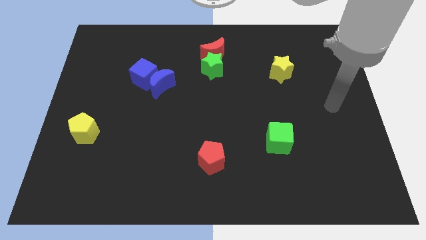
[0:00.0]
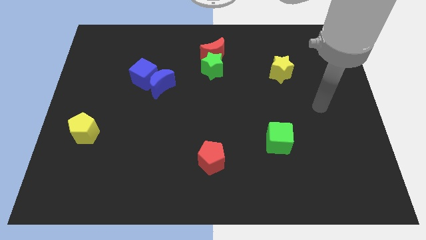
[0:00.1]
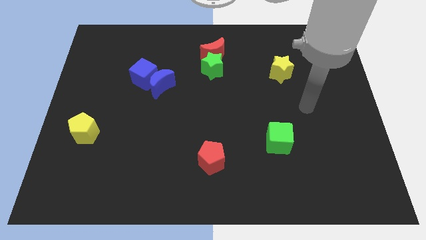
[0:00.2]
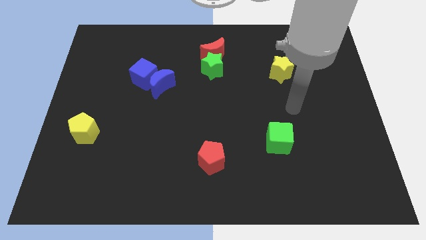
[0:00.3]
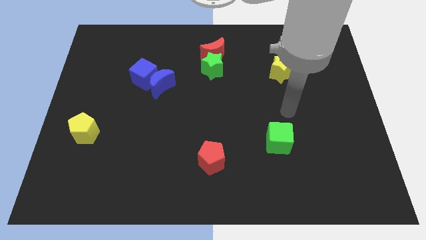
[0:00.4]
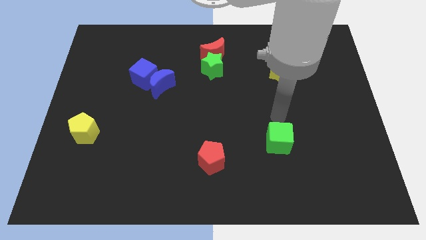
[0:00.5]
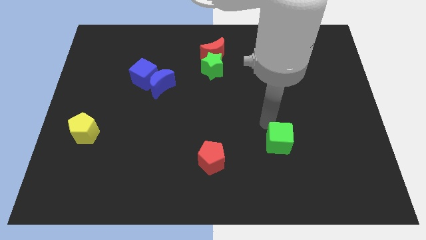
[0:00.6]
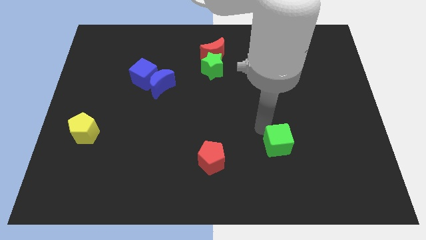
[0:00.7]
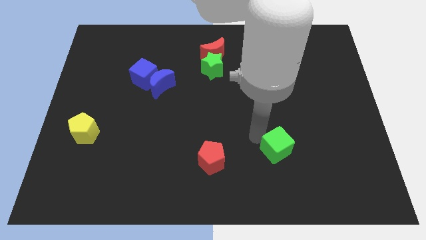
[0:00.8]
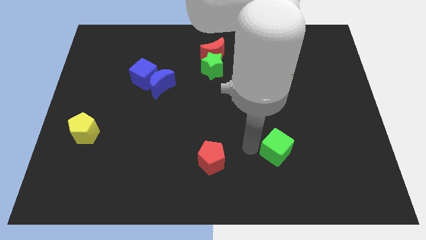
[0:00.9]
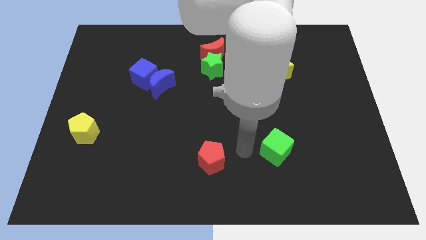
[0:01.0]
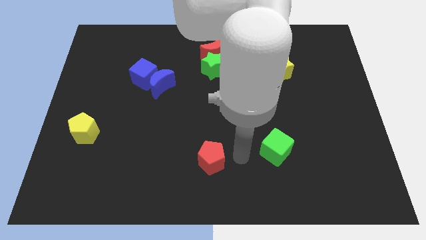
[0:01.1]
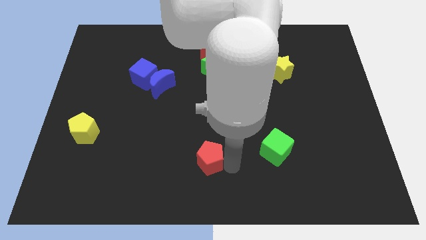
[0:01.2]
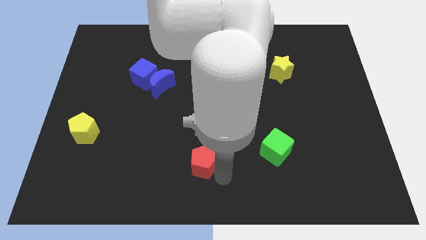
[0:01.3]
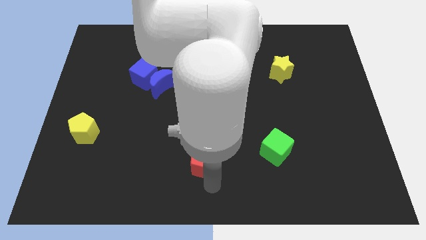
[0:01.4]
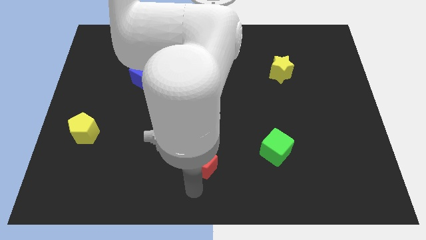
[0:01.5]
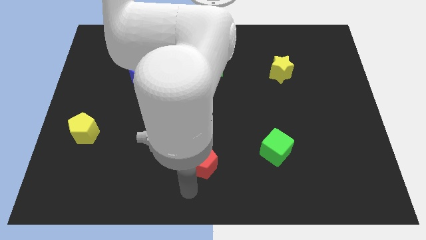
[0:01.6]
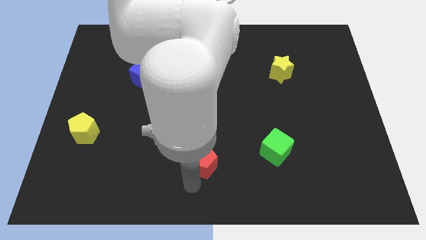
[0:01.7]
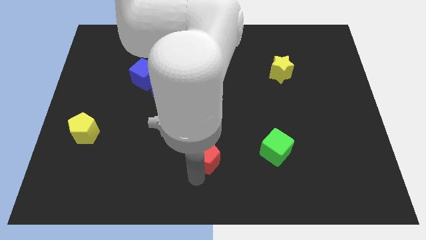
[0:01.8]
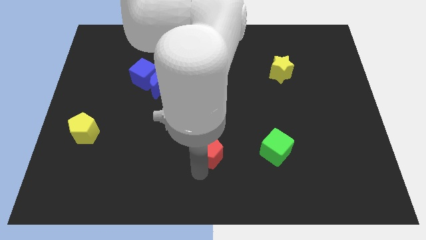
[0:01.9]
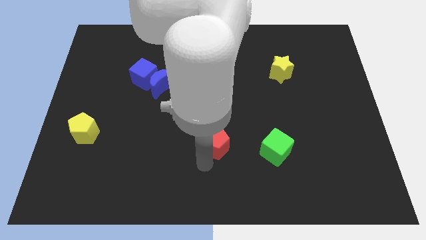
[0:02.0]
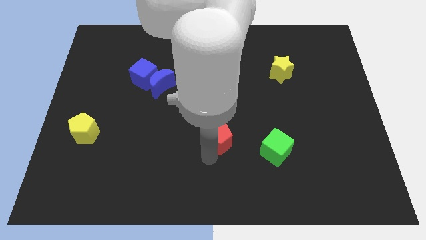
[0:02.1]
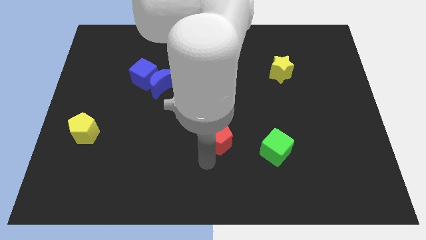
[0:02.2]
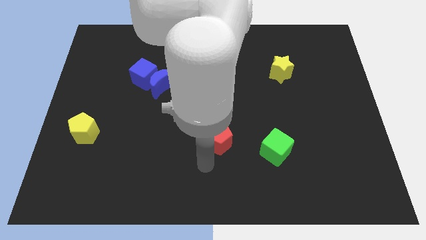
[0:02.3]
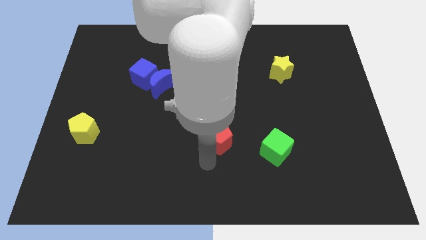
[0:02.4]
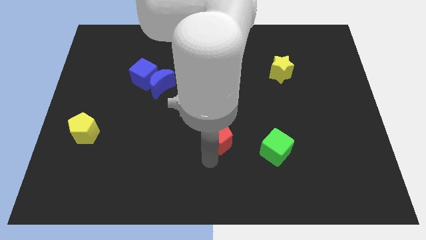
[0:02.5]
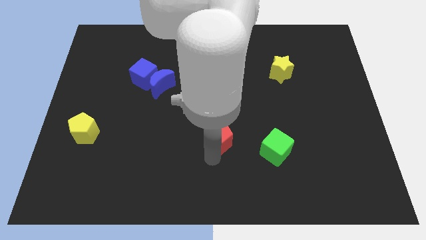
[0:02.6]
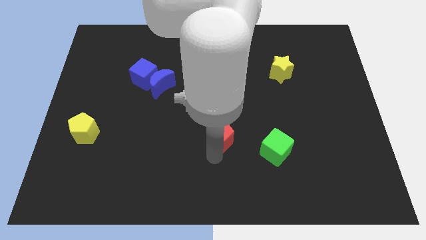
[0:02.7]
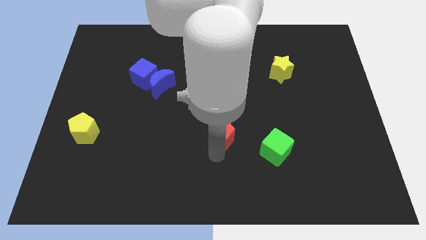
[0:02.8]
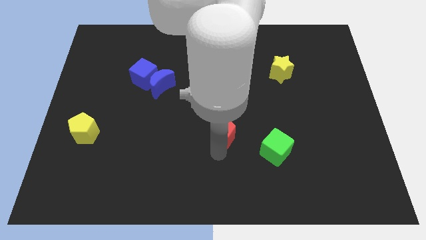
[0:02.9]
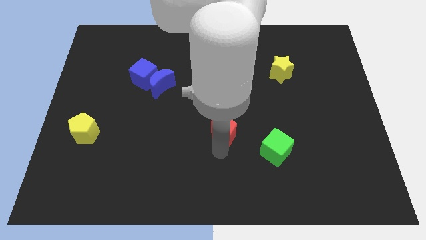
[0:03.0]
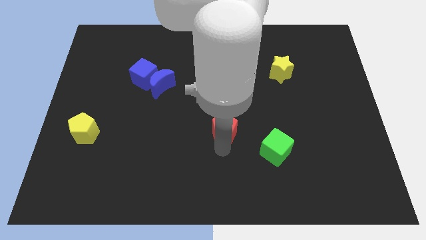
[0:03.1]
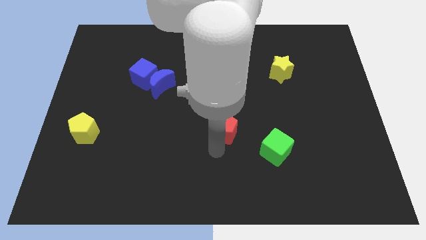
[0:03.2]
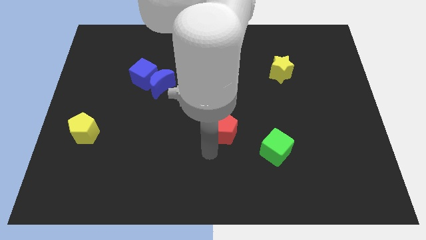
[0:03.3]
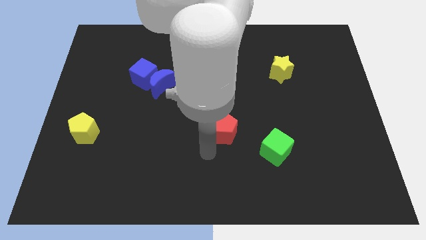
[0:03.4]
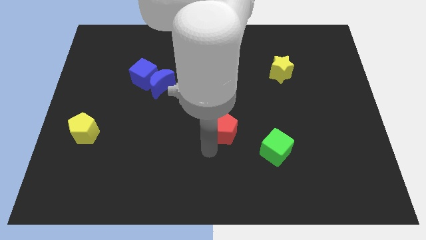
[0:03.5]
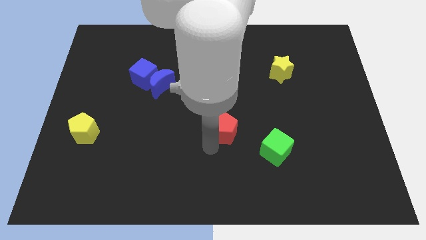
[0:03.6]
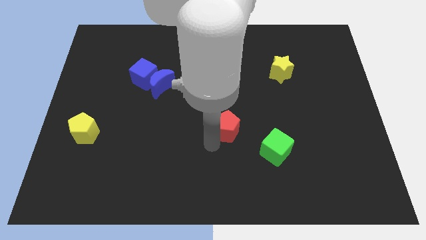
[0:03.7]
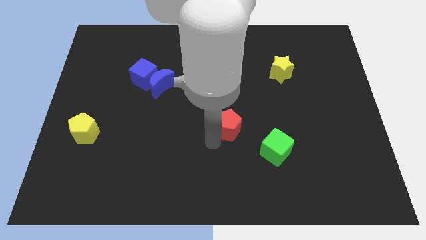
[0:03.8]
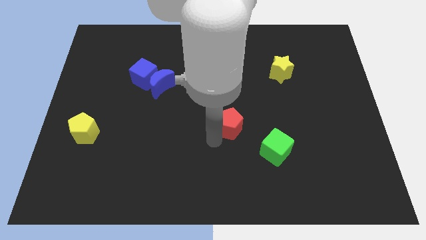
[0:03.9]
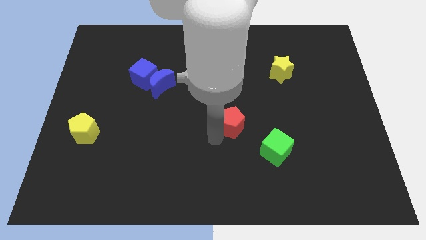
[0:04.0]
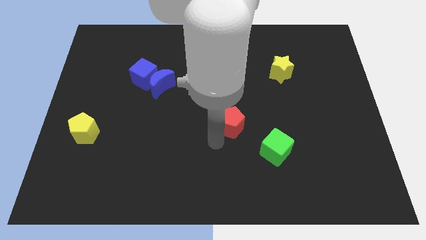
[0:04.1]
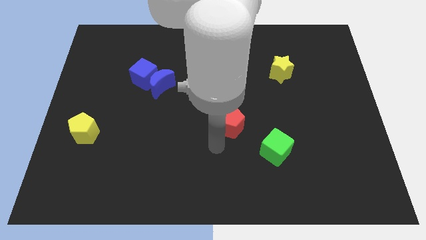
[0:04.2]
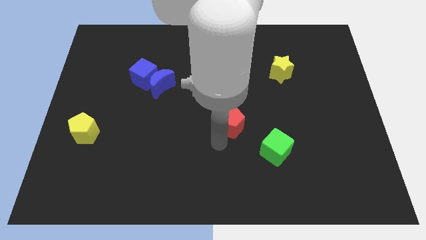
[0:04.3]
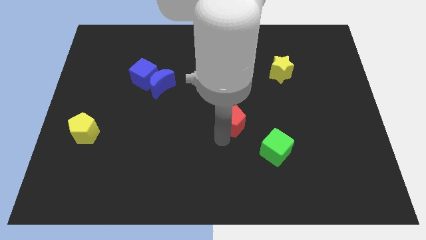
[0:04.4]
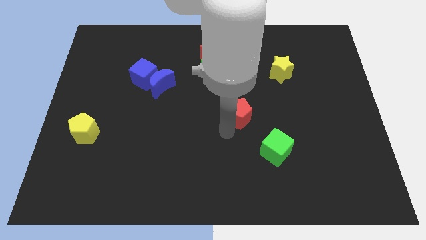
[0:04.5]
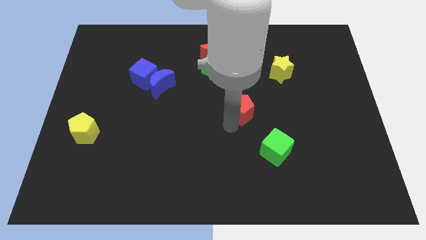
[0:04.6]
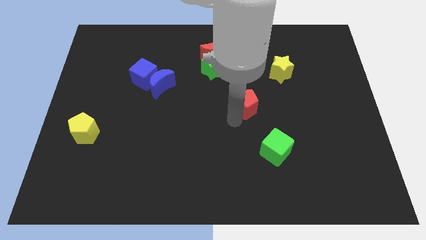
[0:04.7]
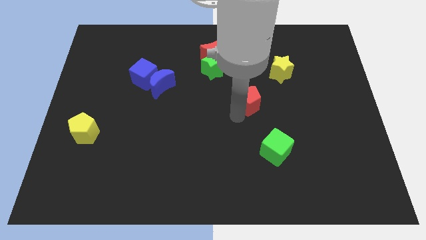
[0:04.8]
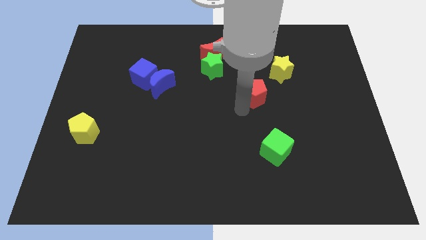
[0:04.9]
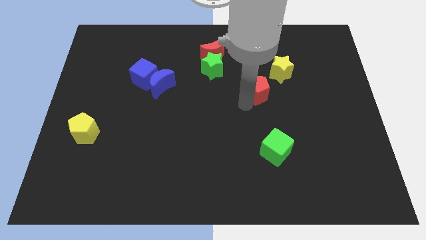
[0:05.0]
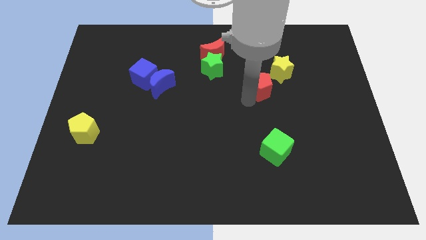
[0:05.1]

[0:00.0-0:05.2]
push the red pentagon diagonally up and to the right

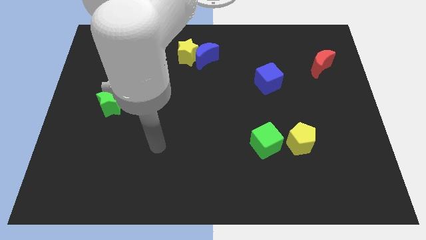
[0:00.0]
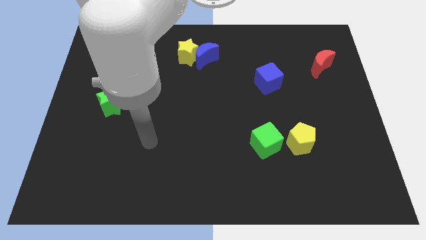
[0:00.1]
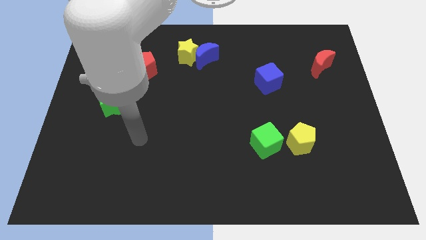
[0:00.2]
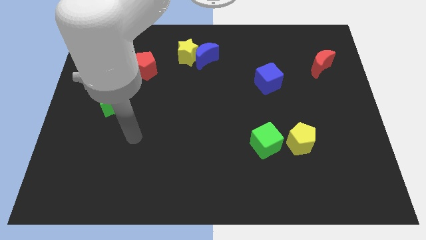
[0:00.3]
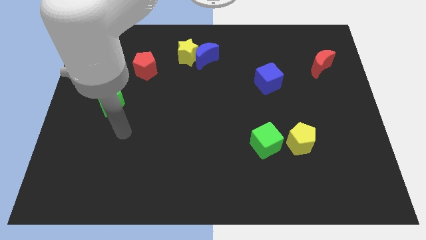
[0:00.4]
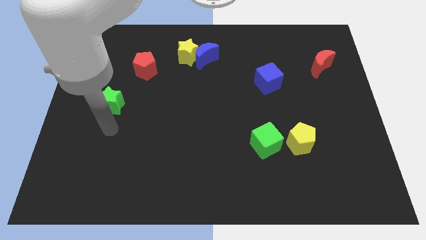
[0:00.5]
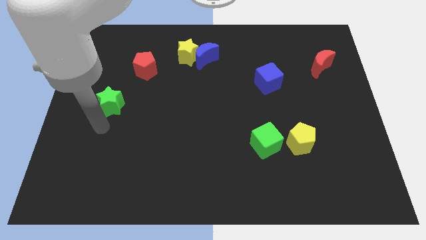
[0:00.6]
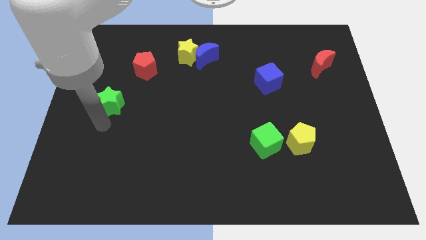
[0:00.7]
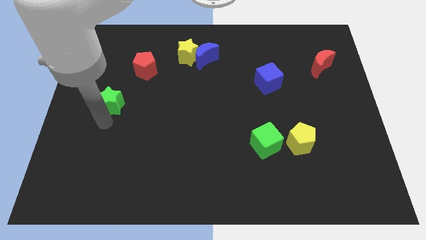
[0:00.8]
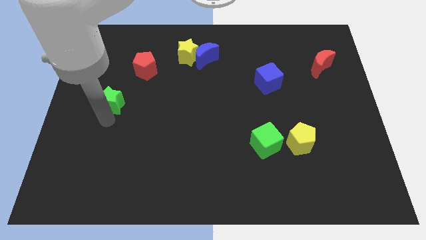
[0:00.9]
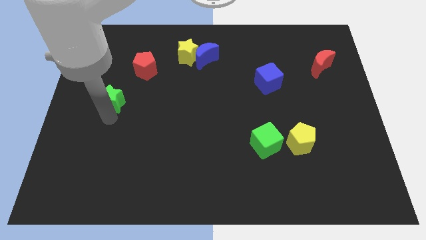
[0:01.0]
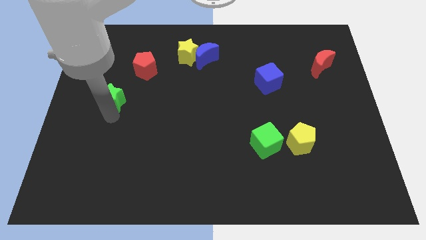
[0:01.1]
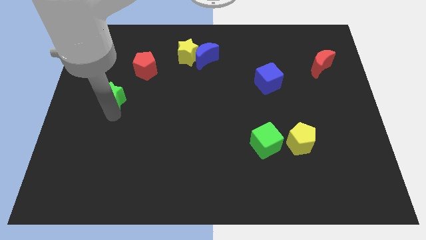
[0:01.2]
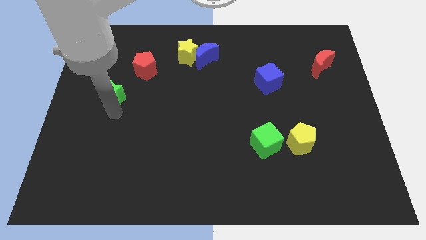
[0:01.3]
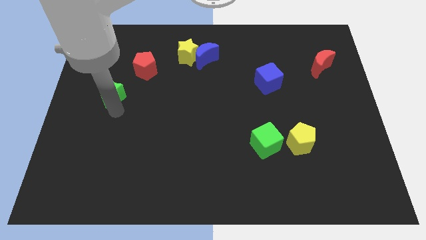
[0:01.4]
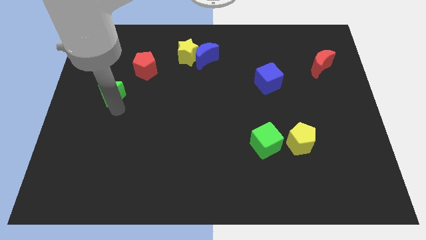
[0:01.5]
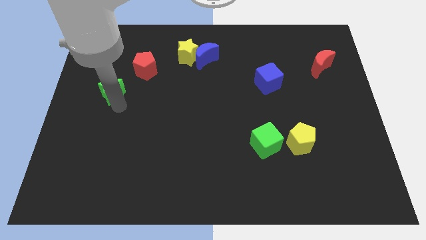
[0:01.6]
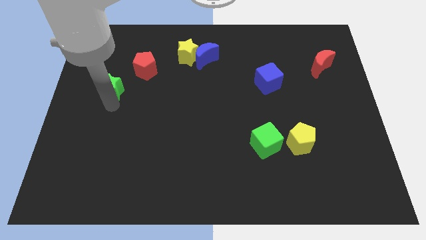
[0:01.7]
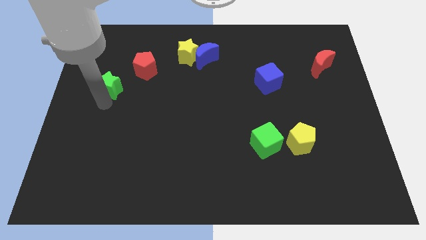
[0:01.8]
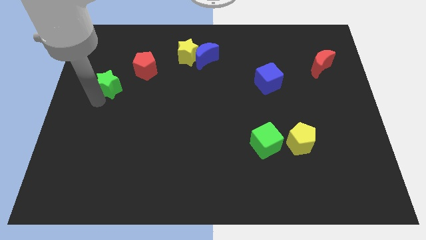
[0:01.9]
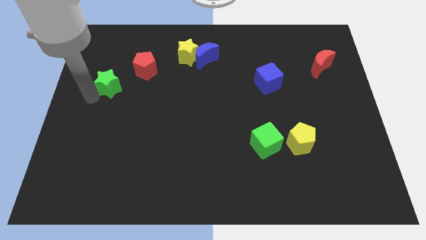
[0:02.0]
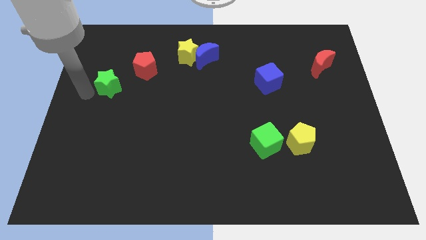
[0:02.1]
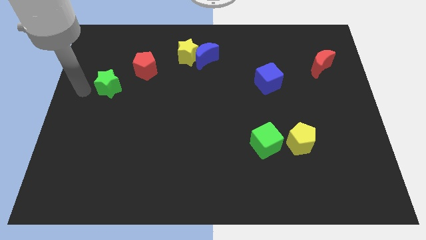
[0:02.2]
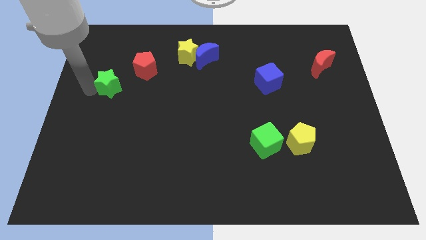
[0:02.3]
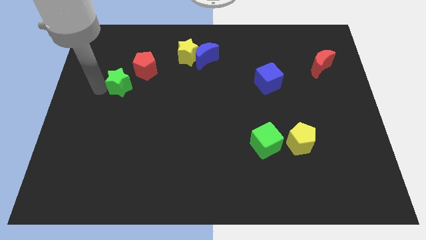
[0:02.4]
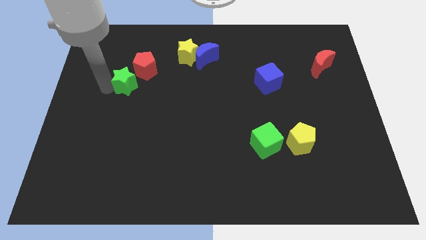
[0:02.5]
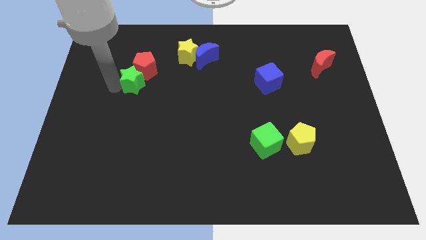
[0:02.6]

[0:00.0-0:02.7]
slightly move the green star upwards and then right

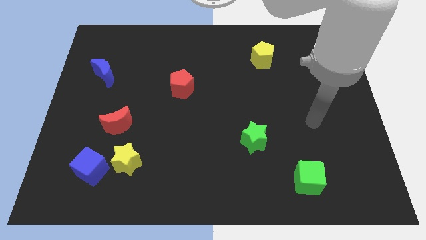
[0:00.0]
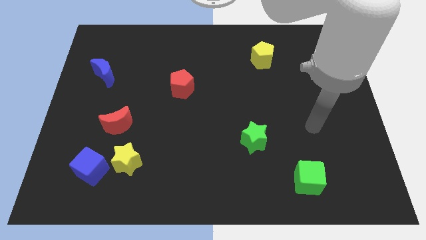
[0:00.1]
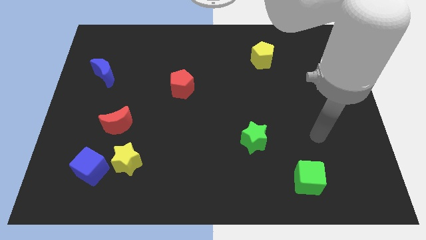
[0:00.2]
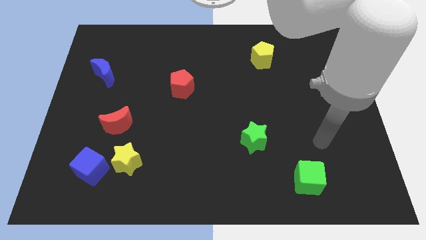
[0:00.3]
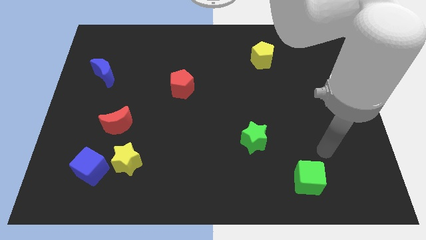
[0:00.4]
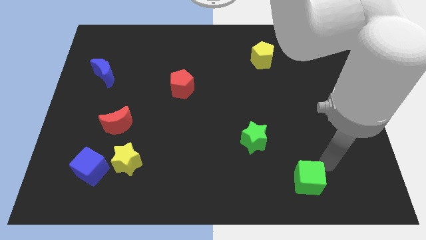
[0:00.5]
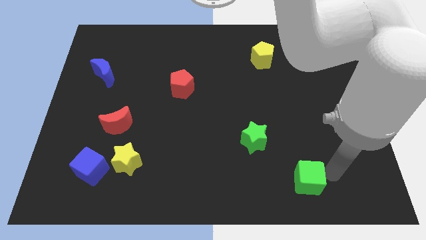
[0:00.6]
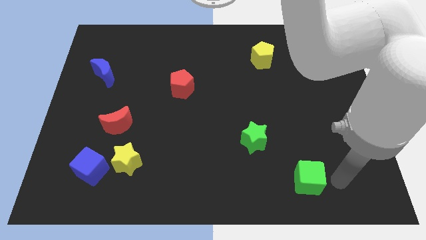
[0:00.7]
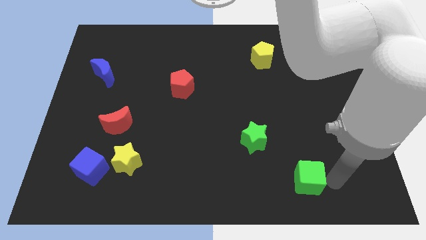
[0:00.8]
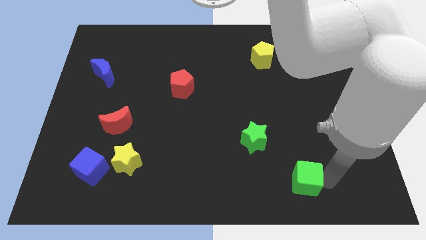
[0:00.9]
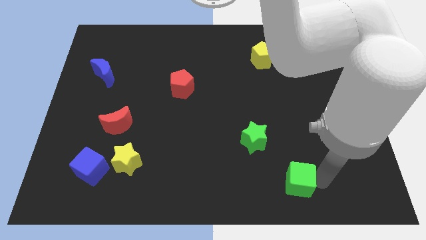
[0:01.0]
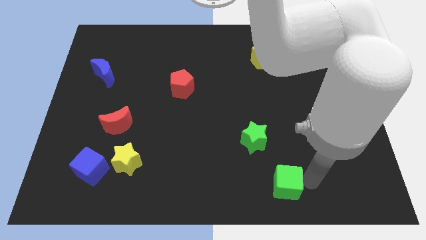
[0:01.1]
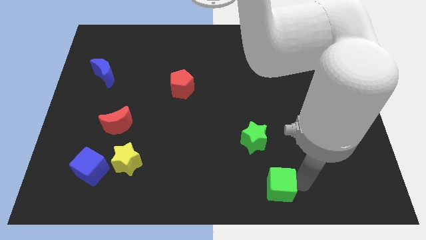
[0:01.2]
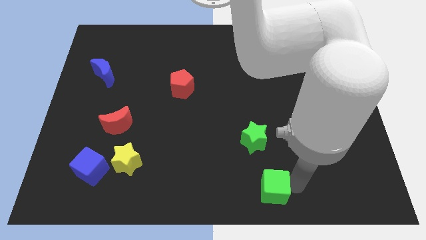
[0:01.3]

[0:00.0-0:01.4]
slightly slide the green cube left
